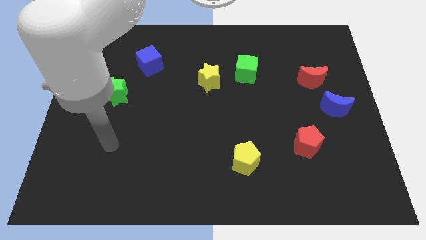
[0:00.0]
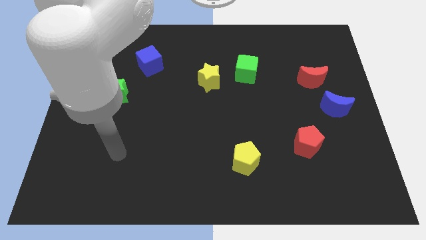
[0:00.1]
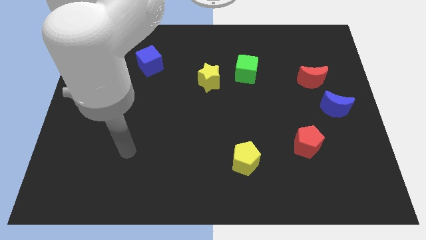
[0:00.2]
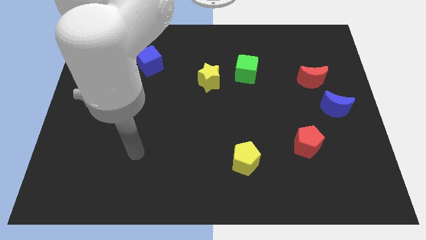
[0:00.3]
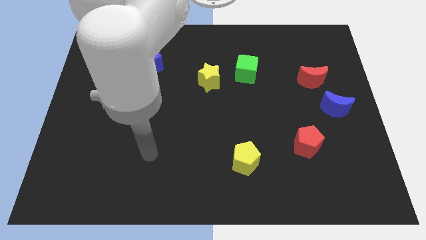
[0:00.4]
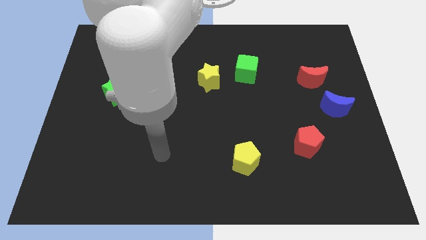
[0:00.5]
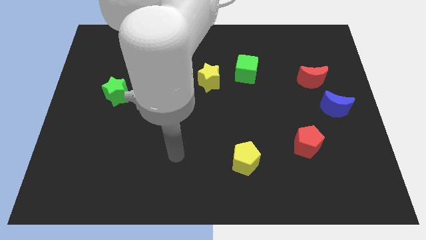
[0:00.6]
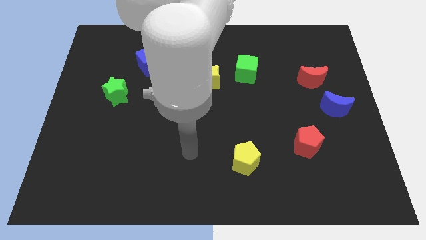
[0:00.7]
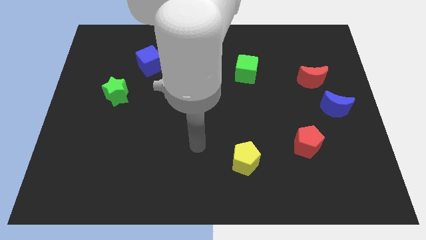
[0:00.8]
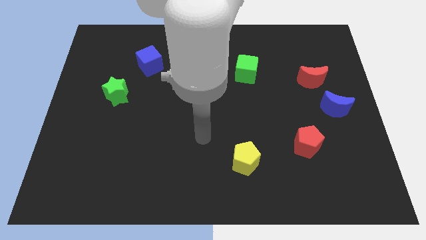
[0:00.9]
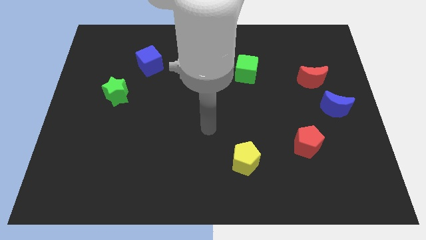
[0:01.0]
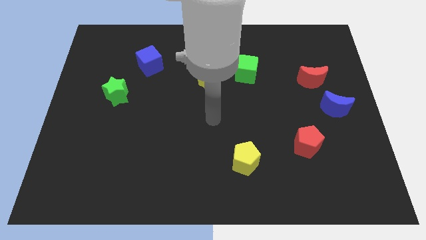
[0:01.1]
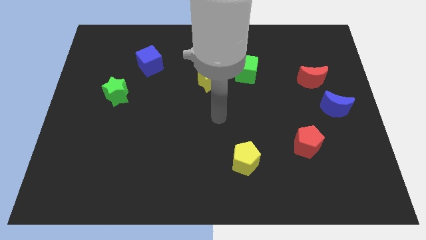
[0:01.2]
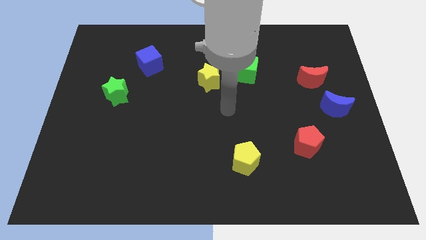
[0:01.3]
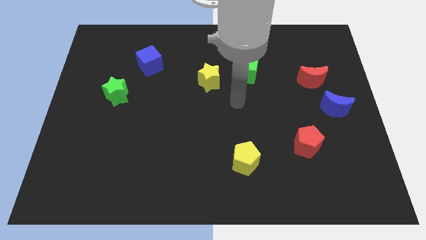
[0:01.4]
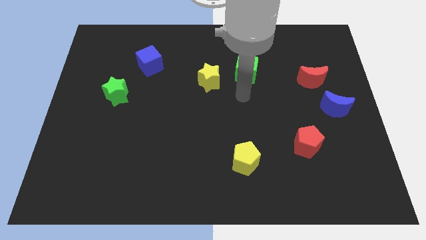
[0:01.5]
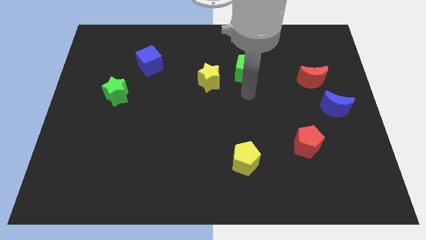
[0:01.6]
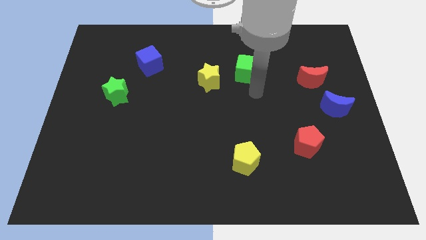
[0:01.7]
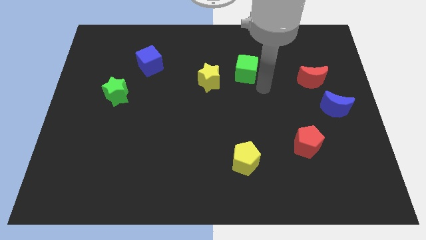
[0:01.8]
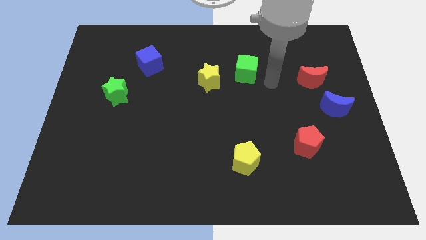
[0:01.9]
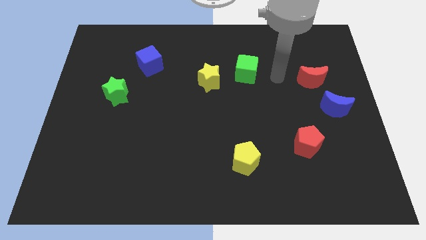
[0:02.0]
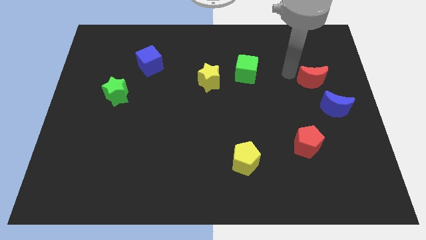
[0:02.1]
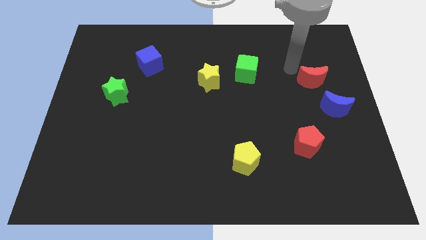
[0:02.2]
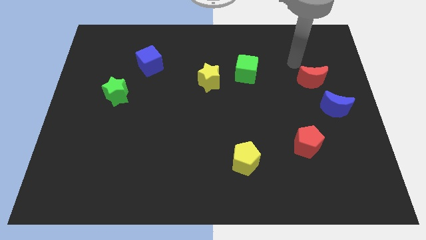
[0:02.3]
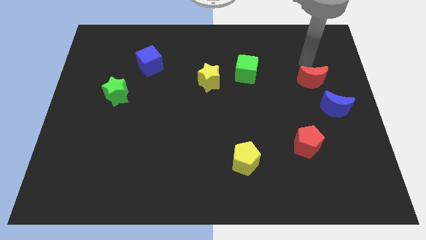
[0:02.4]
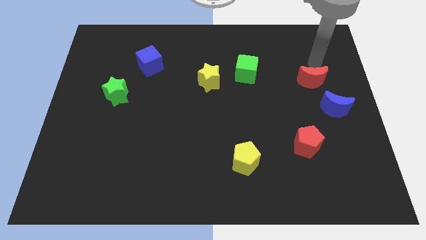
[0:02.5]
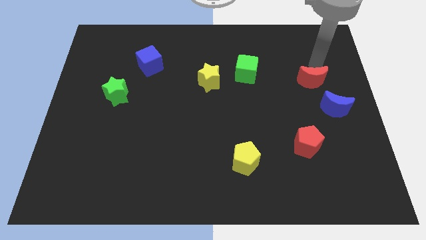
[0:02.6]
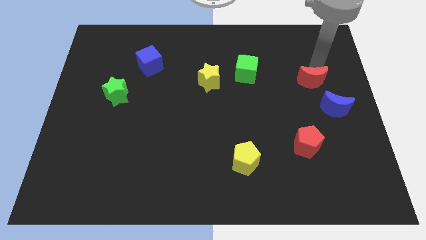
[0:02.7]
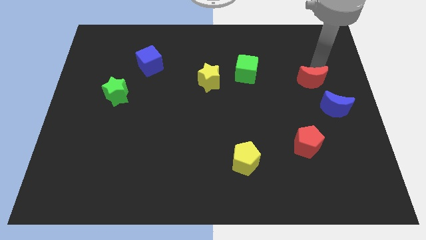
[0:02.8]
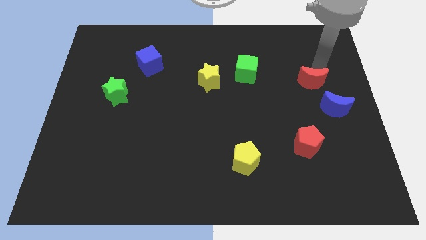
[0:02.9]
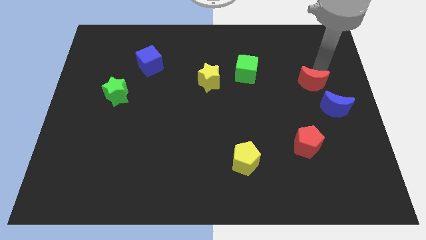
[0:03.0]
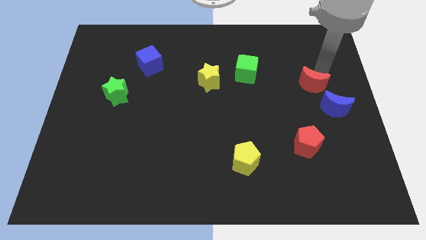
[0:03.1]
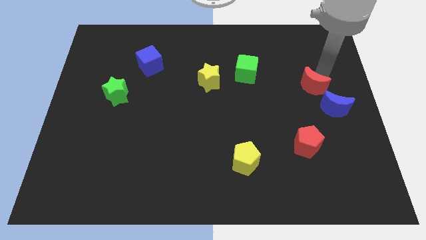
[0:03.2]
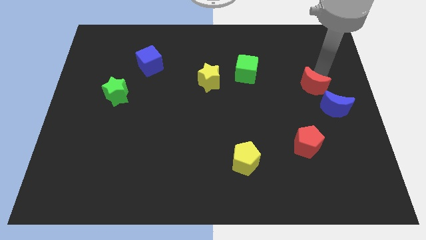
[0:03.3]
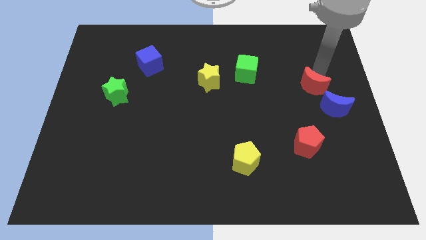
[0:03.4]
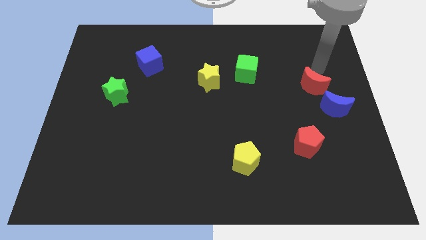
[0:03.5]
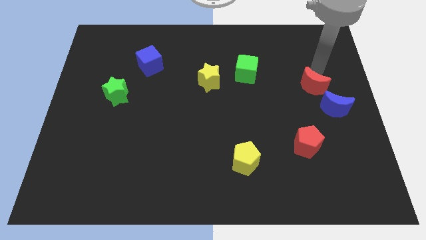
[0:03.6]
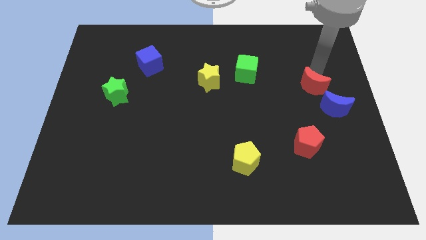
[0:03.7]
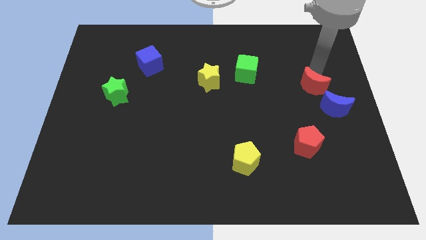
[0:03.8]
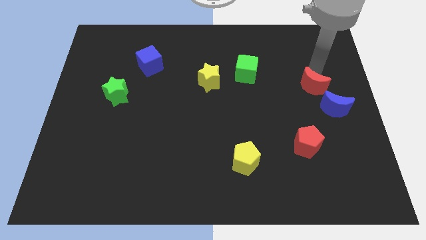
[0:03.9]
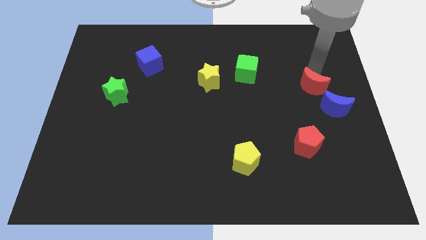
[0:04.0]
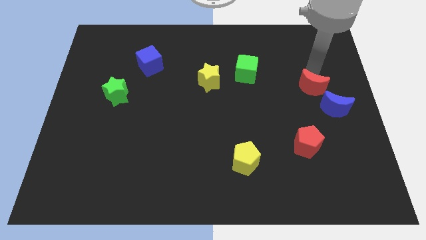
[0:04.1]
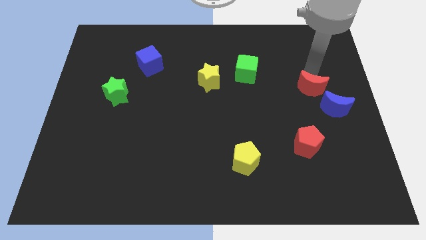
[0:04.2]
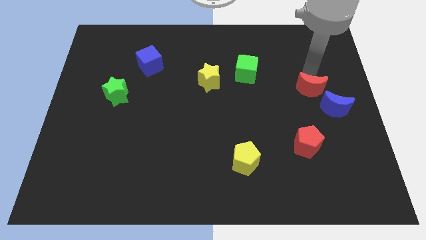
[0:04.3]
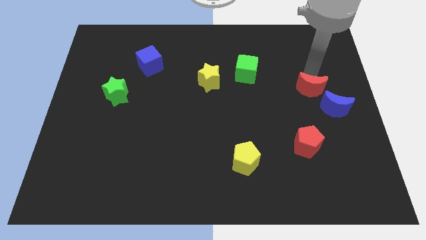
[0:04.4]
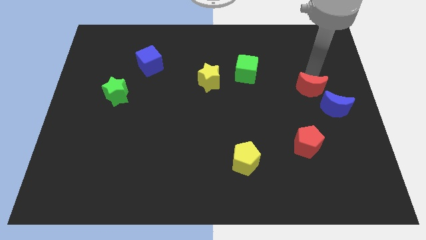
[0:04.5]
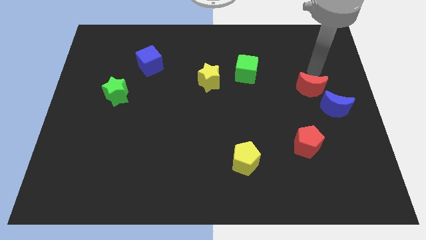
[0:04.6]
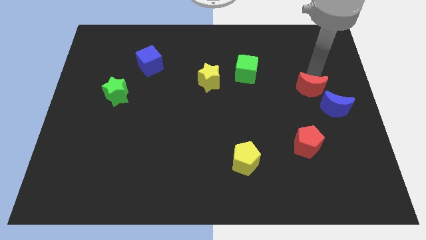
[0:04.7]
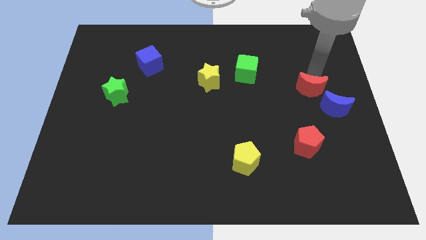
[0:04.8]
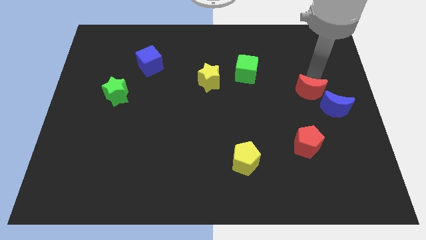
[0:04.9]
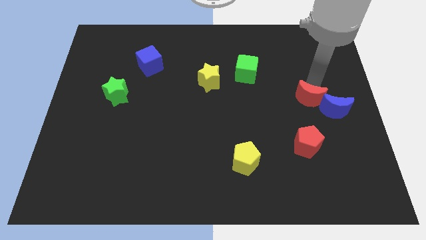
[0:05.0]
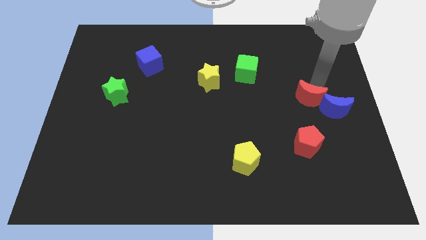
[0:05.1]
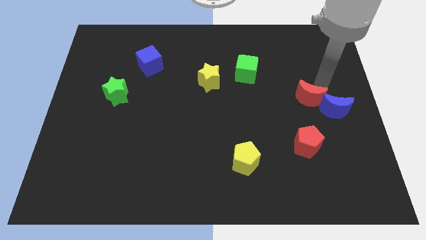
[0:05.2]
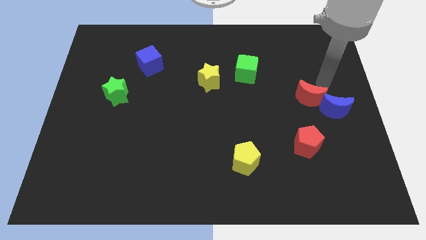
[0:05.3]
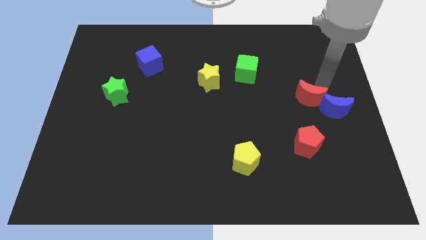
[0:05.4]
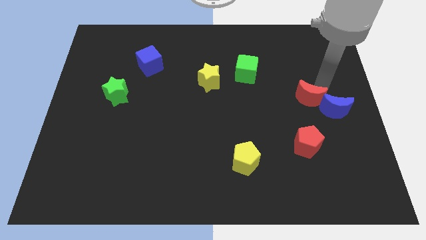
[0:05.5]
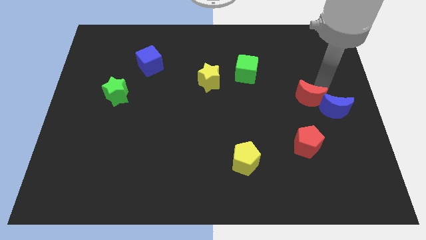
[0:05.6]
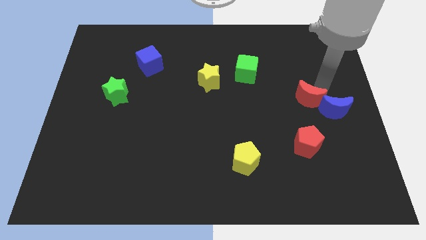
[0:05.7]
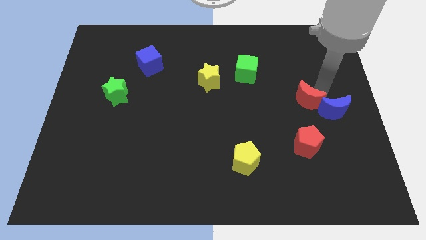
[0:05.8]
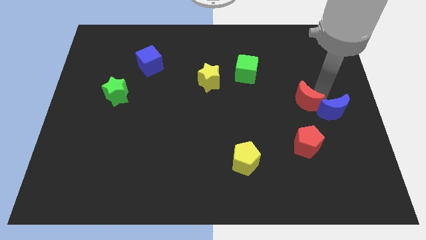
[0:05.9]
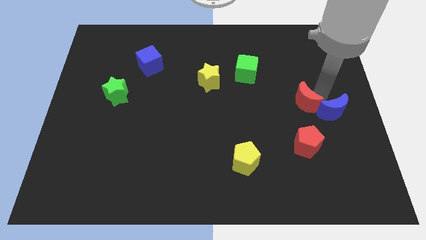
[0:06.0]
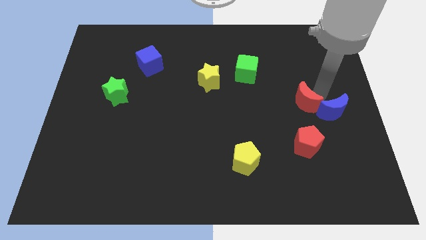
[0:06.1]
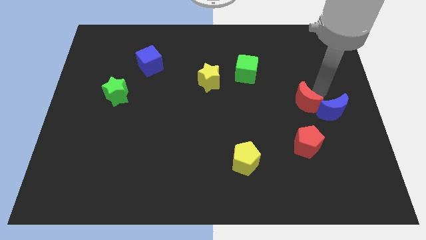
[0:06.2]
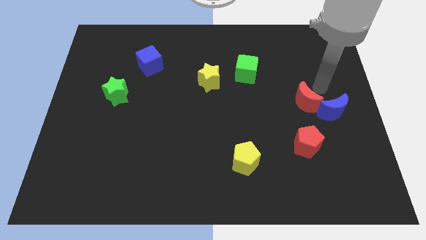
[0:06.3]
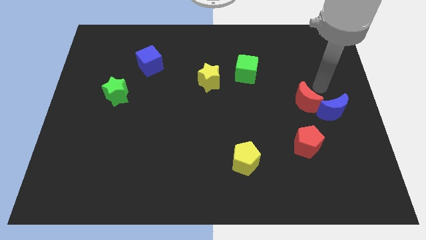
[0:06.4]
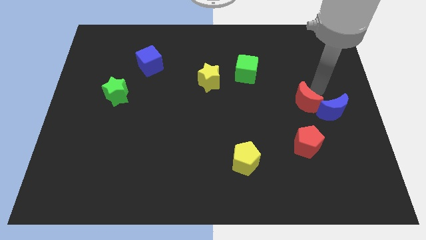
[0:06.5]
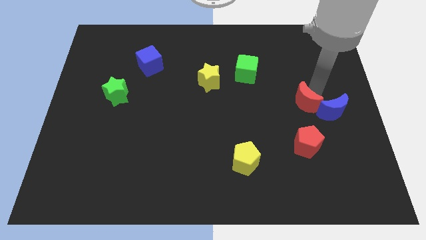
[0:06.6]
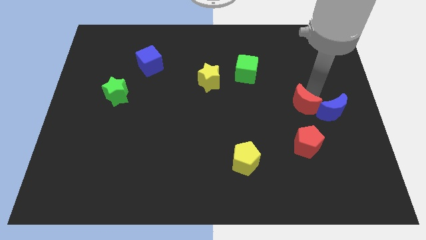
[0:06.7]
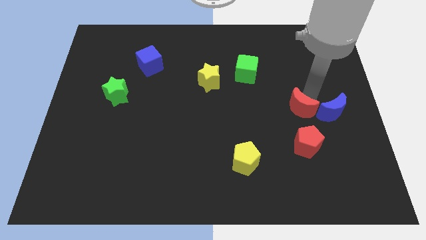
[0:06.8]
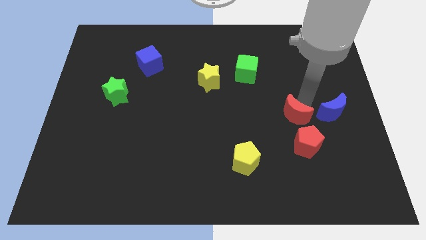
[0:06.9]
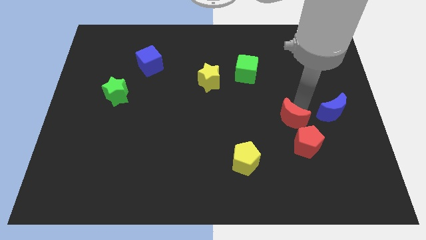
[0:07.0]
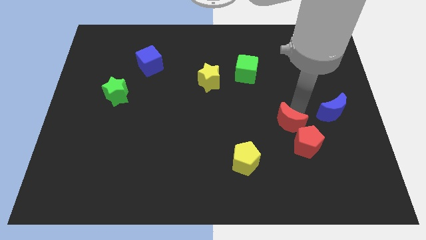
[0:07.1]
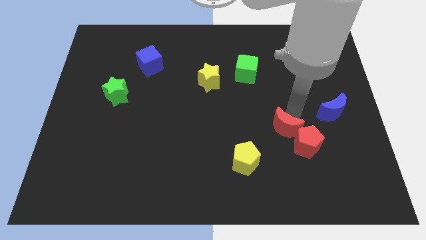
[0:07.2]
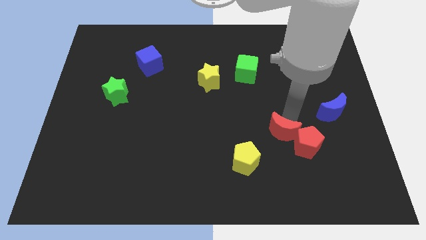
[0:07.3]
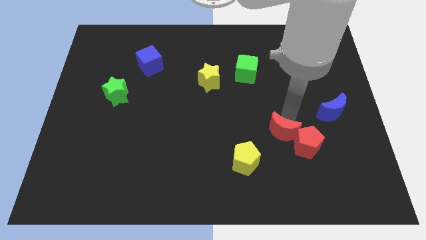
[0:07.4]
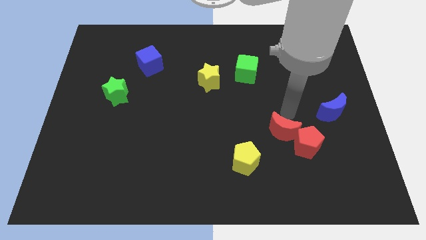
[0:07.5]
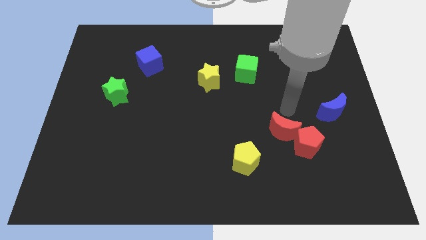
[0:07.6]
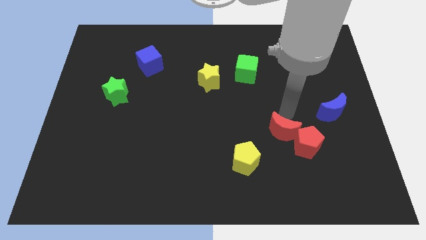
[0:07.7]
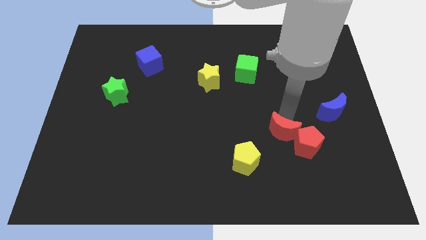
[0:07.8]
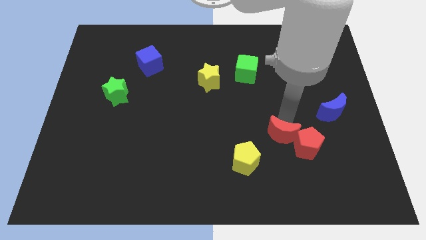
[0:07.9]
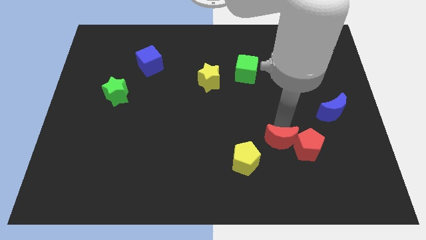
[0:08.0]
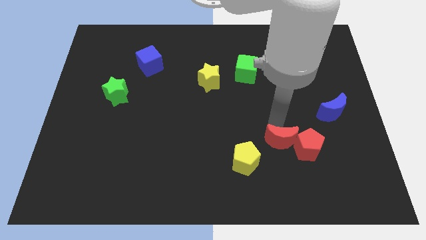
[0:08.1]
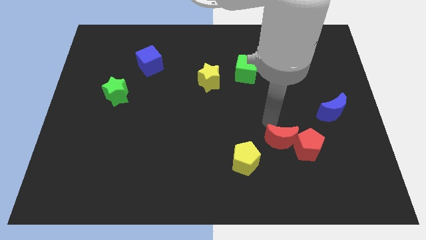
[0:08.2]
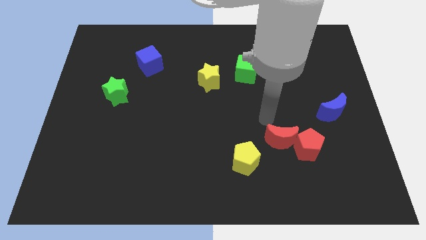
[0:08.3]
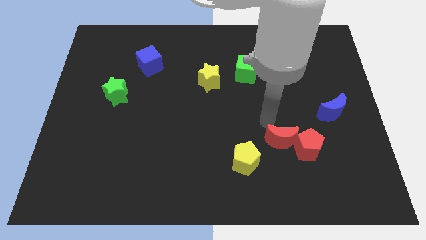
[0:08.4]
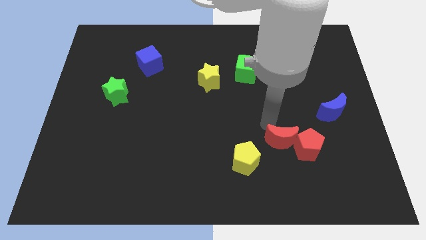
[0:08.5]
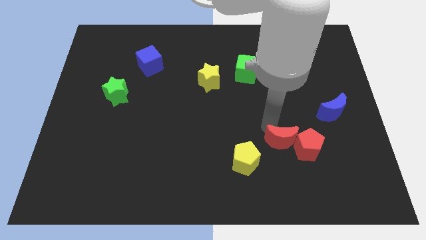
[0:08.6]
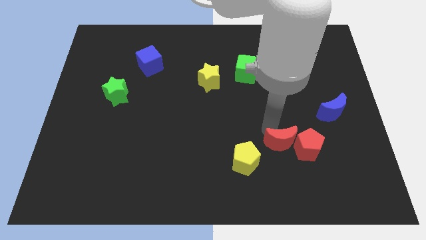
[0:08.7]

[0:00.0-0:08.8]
slide the red moon to the right of the yellow pentagon
